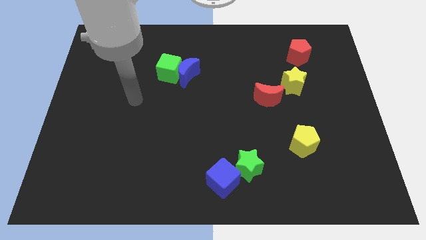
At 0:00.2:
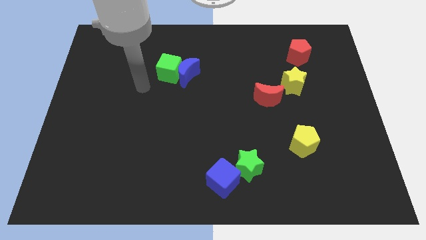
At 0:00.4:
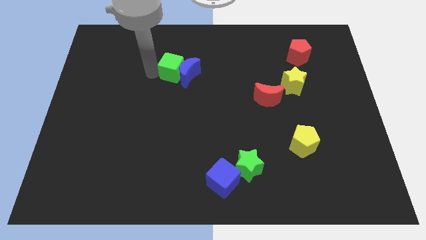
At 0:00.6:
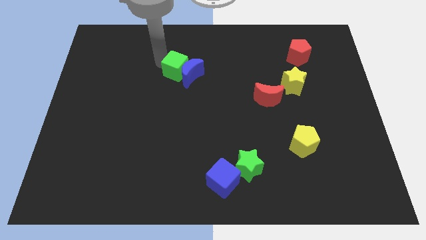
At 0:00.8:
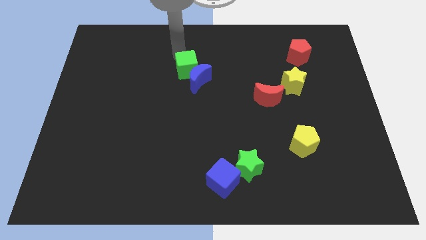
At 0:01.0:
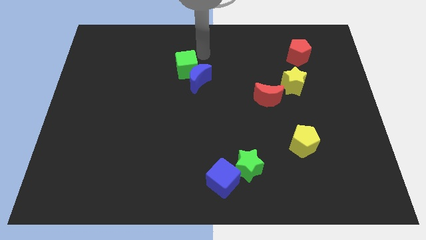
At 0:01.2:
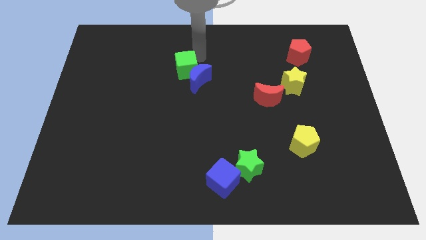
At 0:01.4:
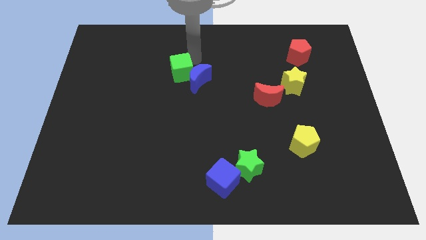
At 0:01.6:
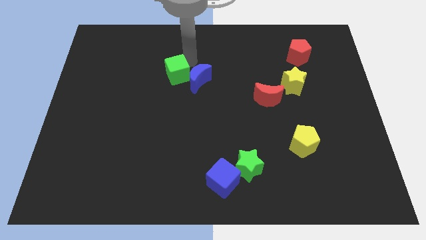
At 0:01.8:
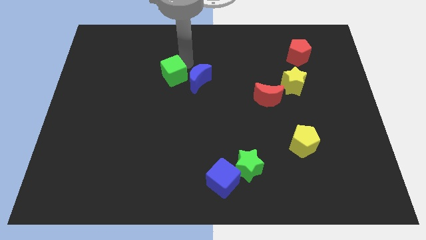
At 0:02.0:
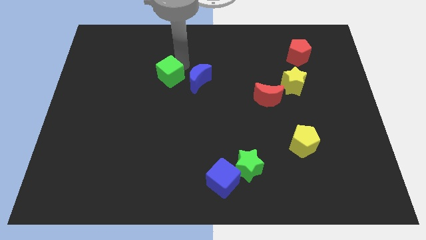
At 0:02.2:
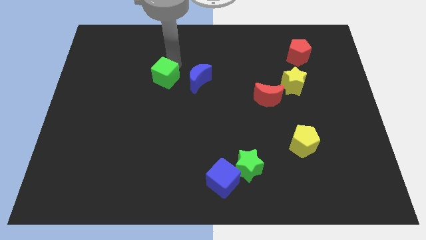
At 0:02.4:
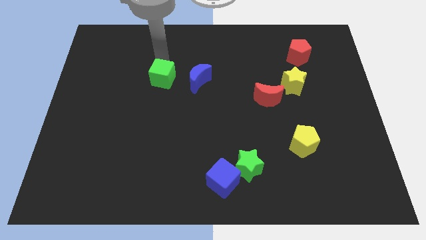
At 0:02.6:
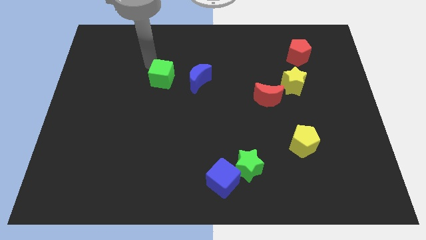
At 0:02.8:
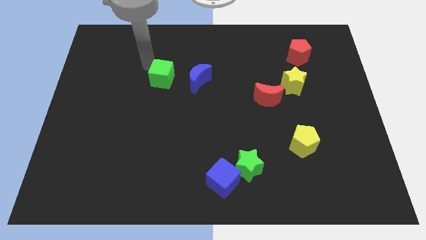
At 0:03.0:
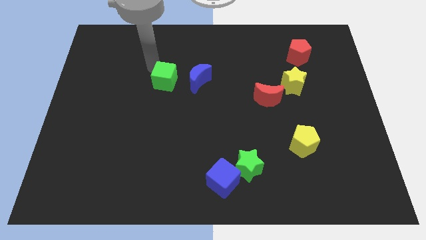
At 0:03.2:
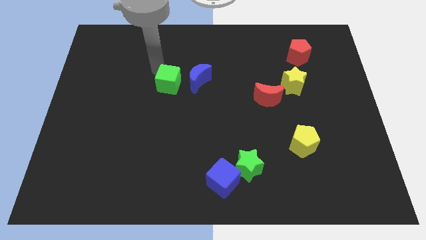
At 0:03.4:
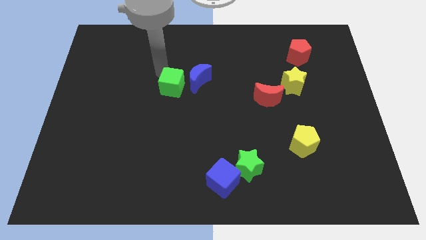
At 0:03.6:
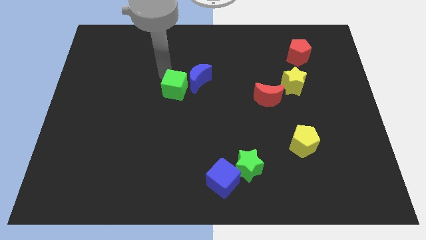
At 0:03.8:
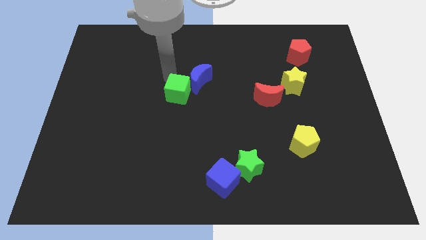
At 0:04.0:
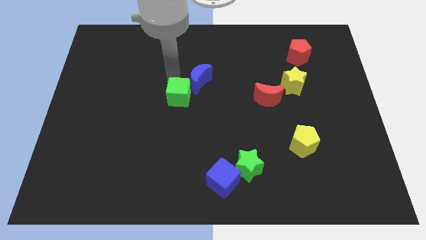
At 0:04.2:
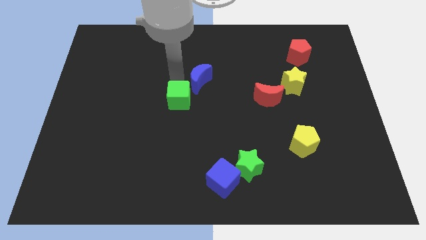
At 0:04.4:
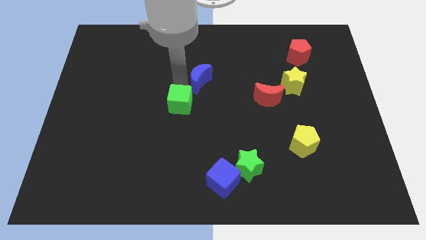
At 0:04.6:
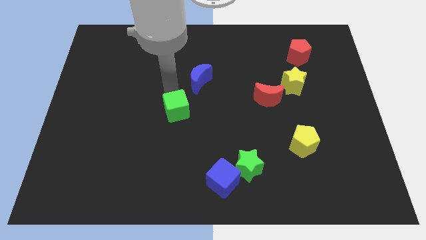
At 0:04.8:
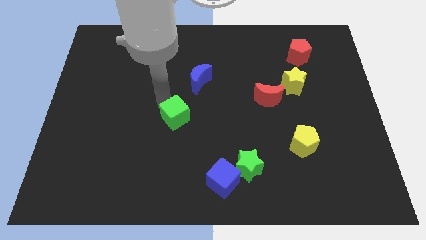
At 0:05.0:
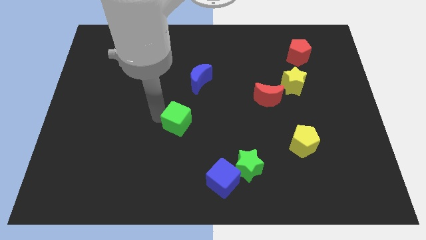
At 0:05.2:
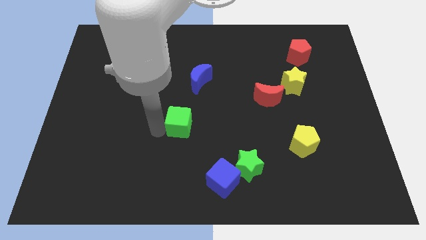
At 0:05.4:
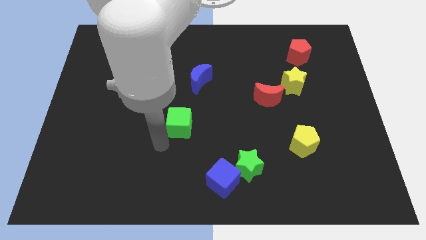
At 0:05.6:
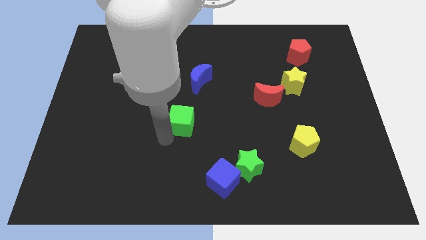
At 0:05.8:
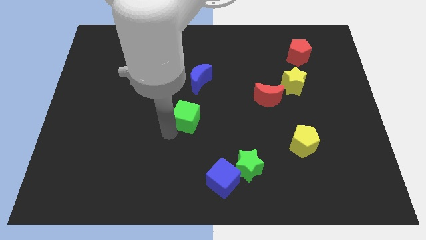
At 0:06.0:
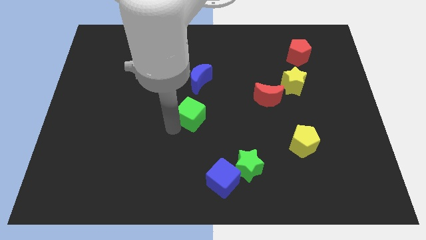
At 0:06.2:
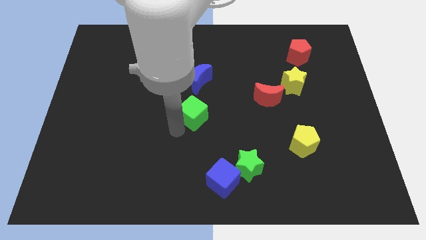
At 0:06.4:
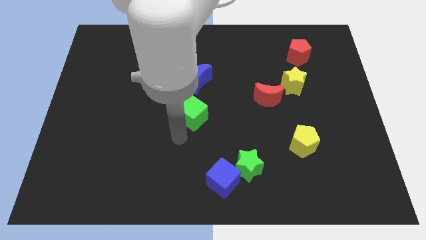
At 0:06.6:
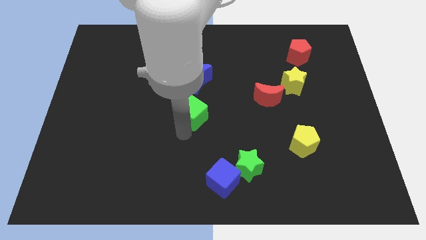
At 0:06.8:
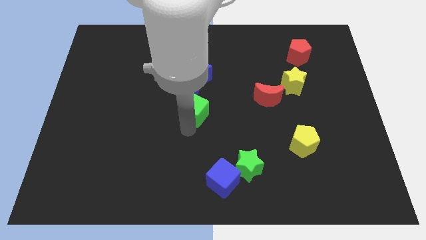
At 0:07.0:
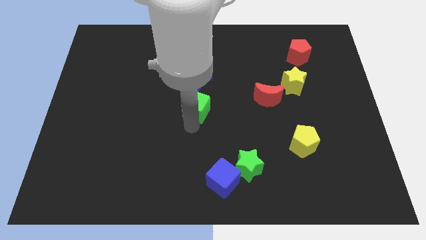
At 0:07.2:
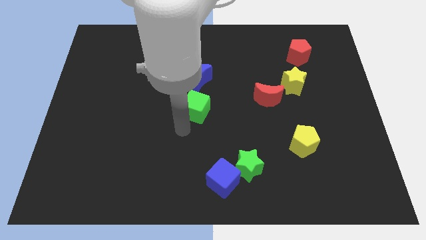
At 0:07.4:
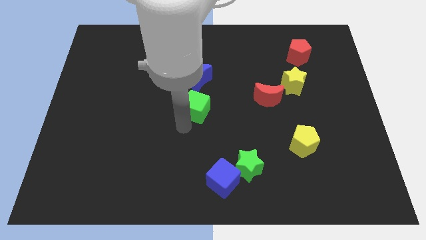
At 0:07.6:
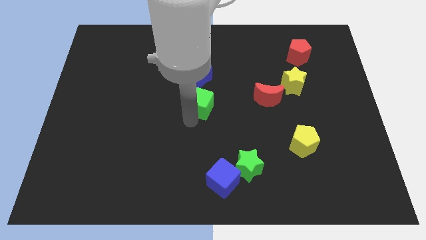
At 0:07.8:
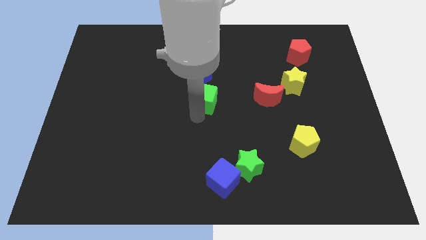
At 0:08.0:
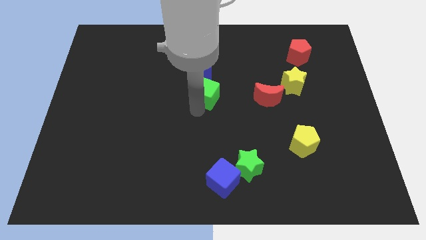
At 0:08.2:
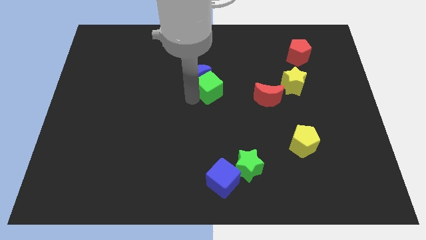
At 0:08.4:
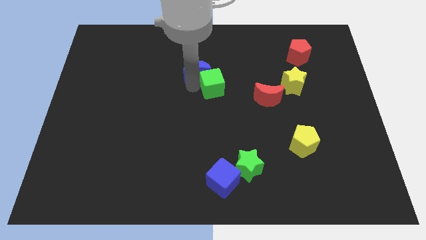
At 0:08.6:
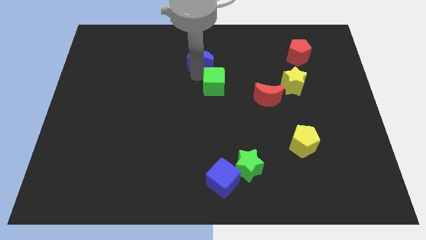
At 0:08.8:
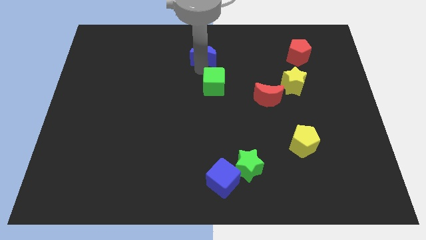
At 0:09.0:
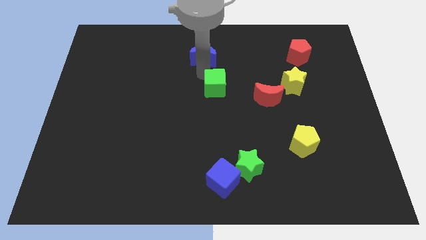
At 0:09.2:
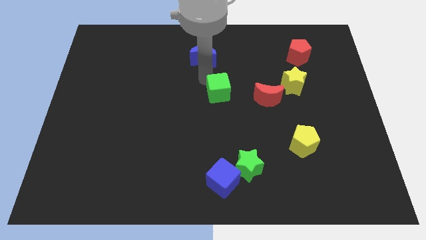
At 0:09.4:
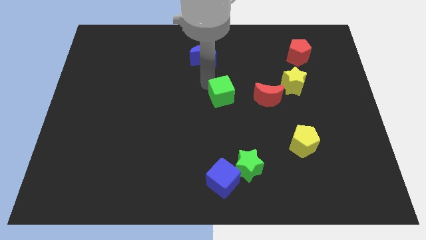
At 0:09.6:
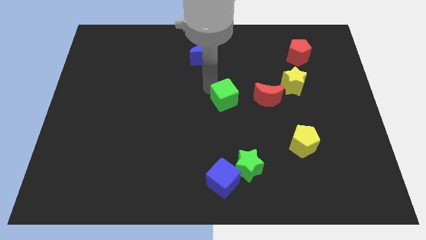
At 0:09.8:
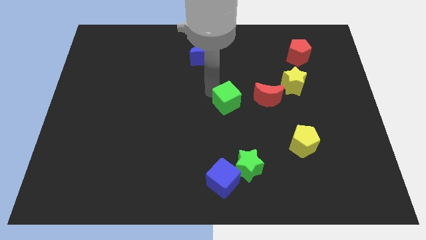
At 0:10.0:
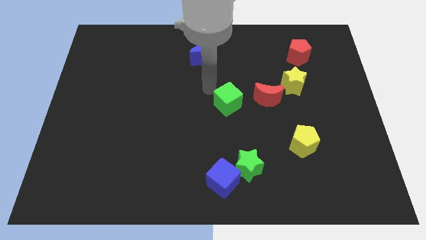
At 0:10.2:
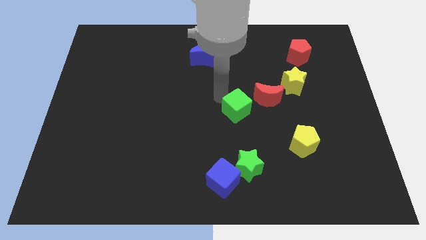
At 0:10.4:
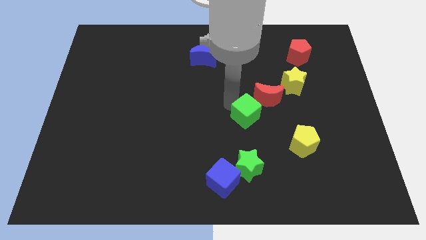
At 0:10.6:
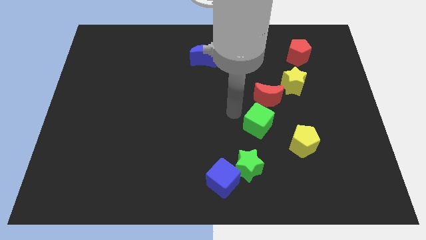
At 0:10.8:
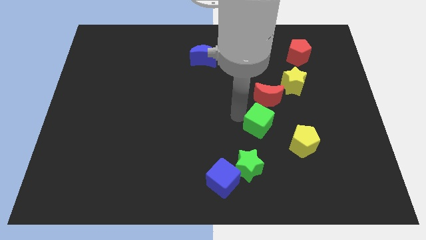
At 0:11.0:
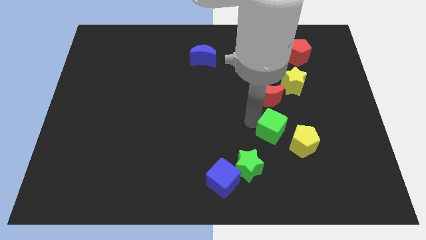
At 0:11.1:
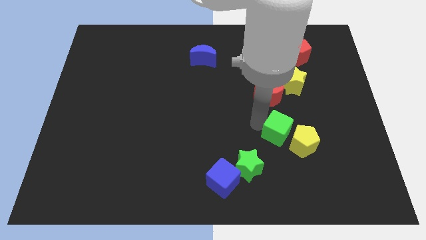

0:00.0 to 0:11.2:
slide the green cube towards the yellow pentagon

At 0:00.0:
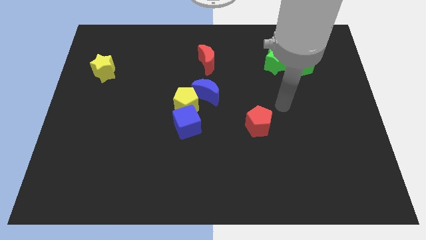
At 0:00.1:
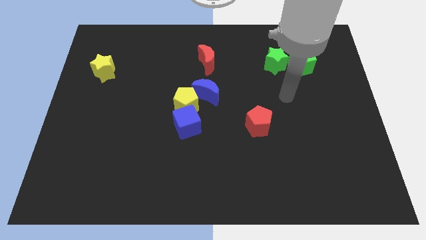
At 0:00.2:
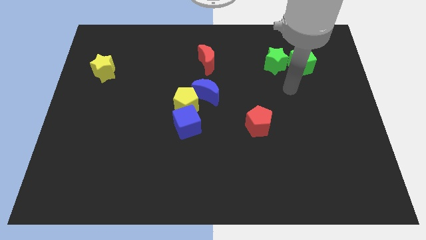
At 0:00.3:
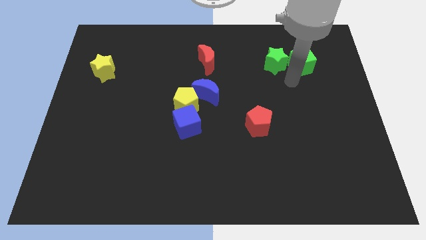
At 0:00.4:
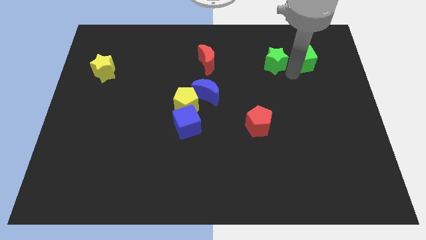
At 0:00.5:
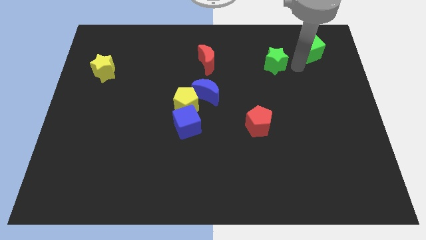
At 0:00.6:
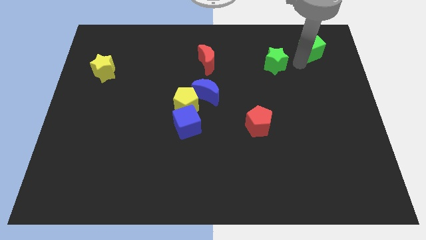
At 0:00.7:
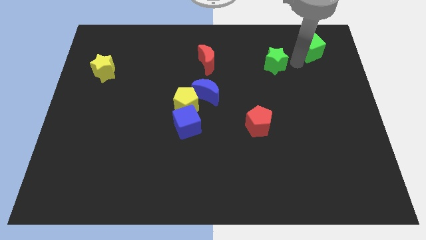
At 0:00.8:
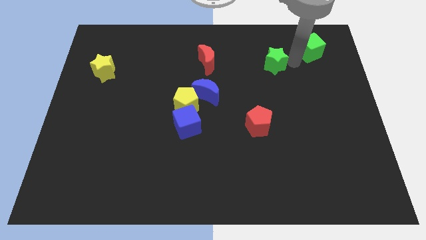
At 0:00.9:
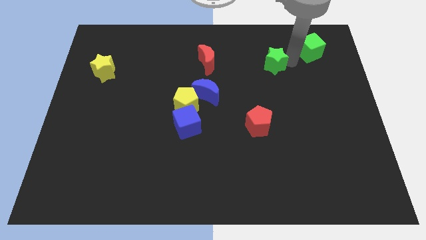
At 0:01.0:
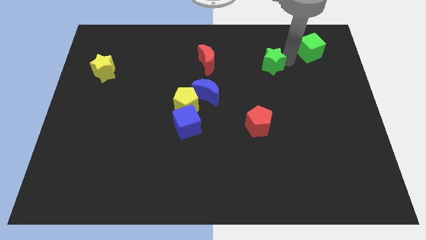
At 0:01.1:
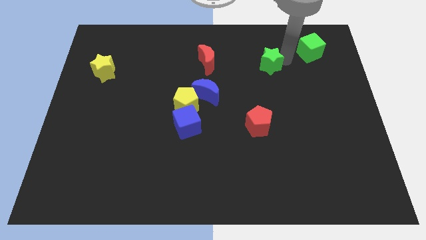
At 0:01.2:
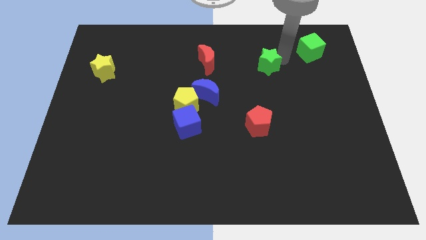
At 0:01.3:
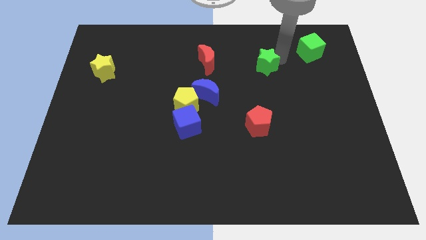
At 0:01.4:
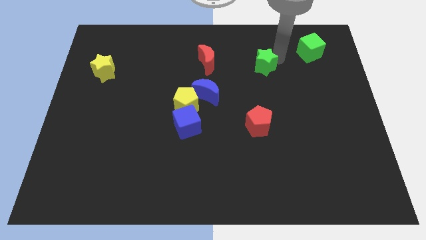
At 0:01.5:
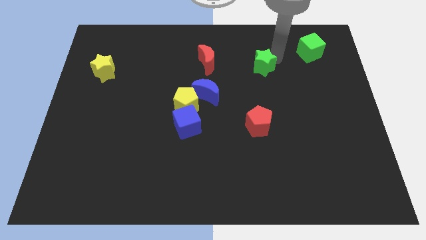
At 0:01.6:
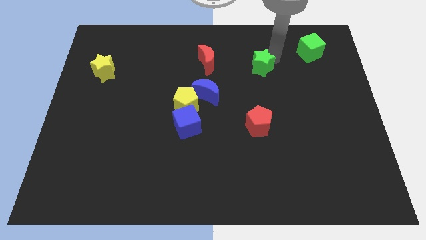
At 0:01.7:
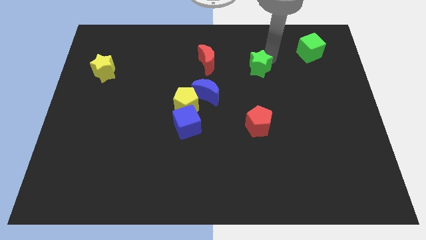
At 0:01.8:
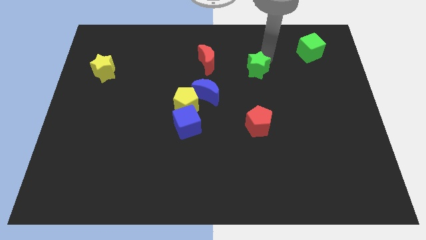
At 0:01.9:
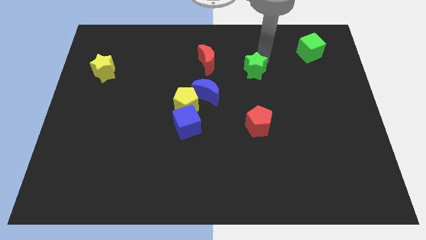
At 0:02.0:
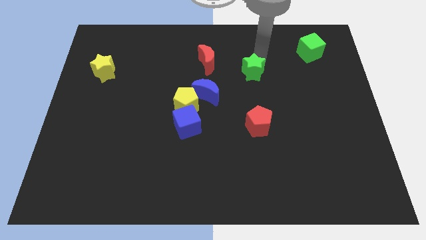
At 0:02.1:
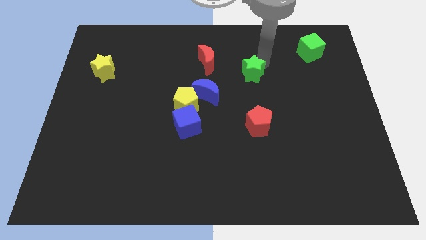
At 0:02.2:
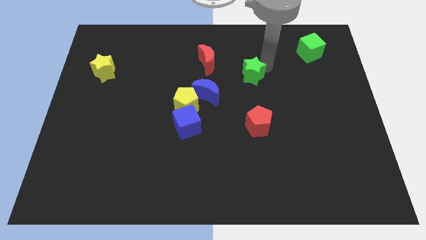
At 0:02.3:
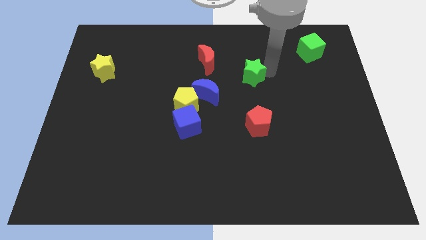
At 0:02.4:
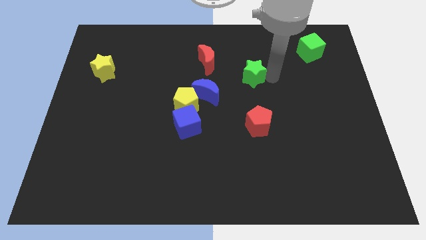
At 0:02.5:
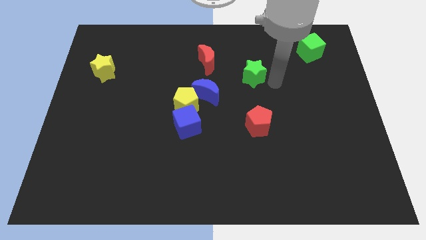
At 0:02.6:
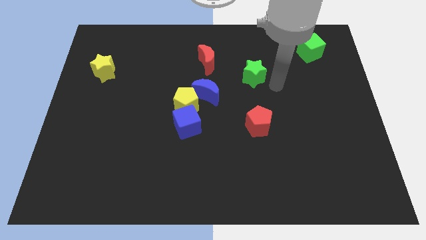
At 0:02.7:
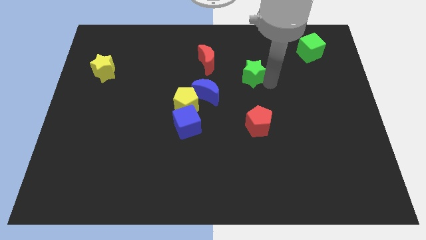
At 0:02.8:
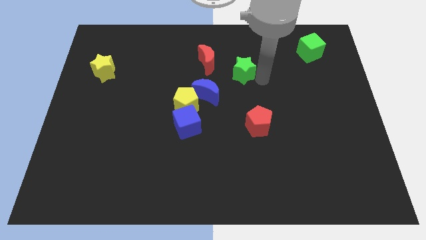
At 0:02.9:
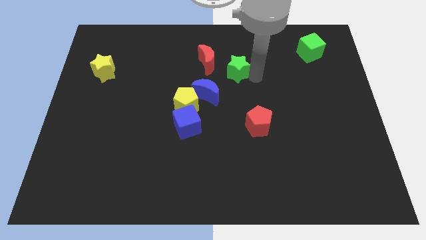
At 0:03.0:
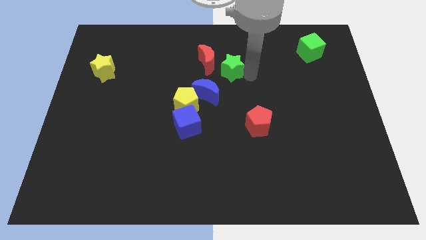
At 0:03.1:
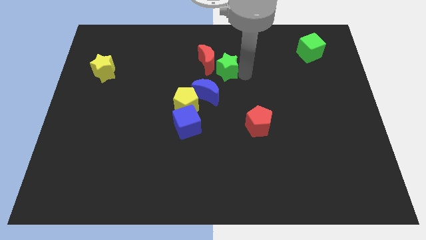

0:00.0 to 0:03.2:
move the green star to the red moon
